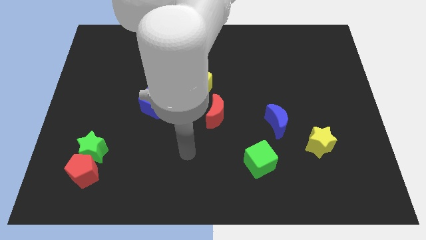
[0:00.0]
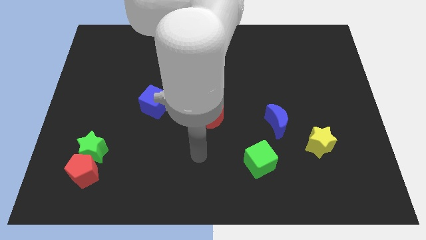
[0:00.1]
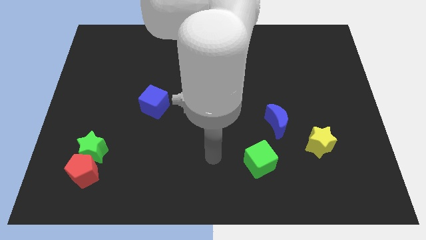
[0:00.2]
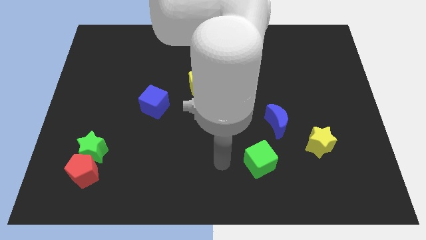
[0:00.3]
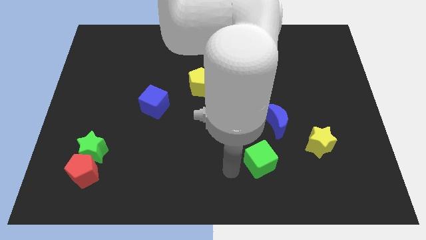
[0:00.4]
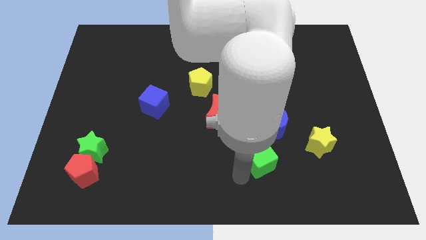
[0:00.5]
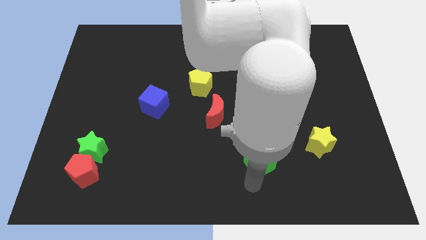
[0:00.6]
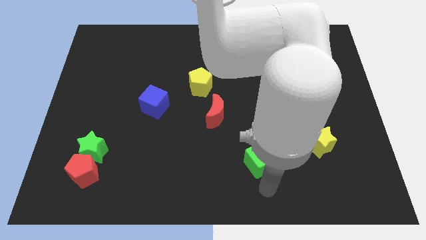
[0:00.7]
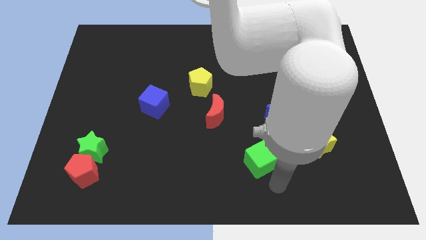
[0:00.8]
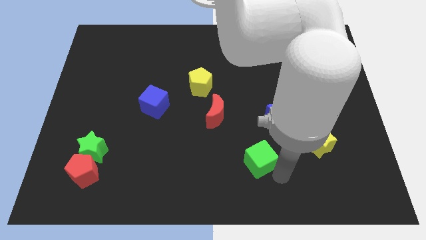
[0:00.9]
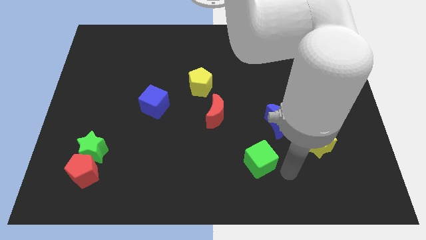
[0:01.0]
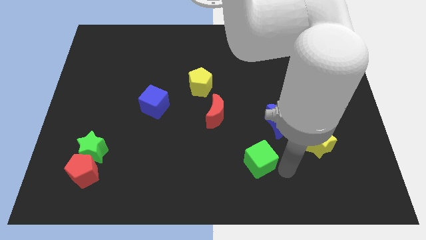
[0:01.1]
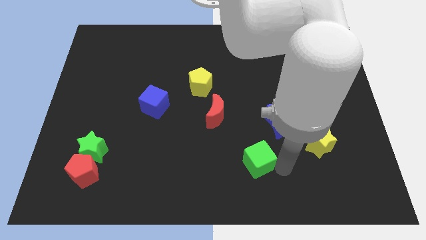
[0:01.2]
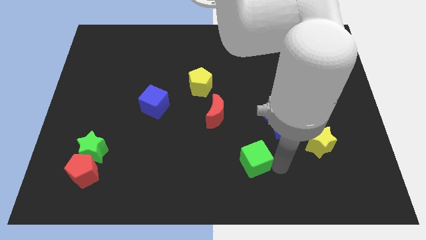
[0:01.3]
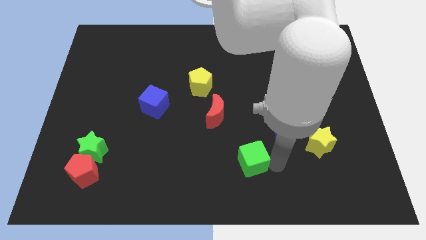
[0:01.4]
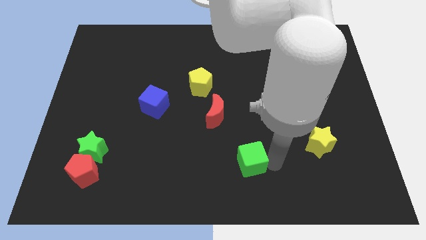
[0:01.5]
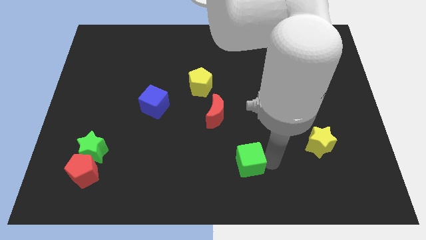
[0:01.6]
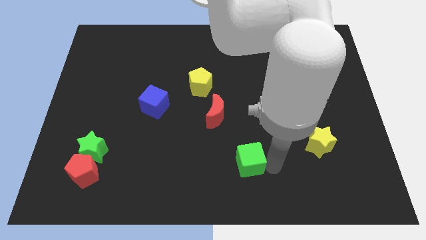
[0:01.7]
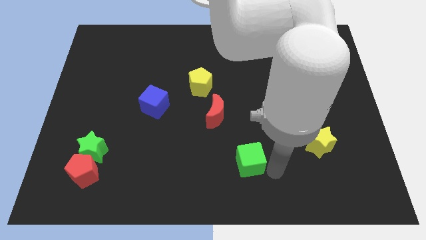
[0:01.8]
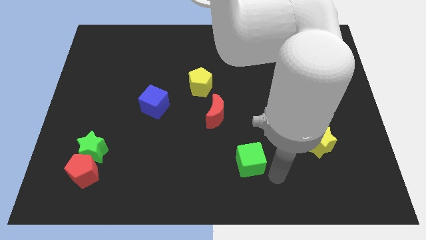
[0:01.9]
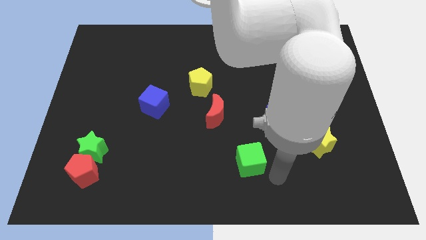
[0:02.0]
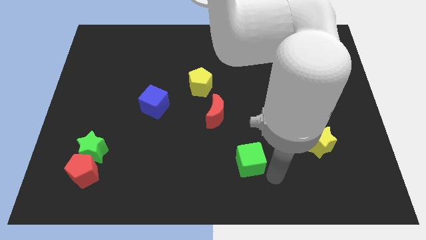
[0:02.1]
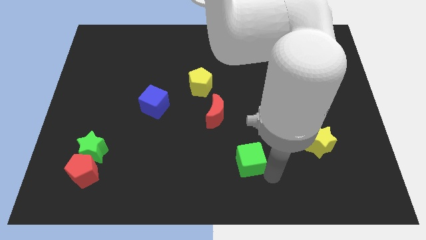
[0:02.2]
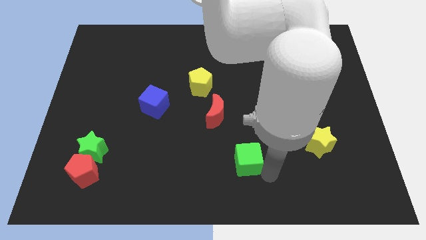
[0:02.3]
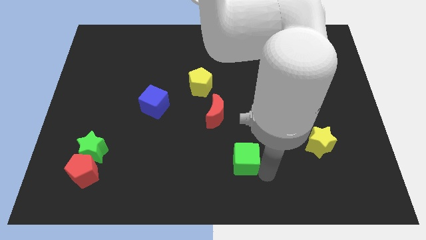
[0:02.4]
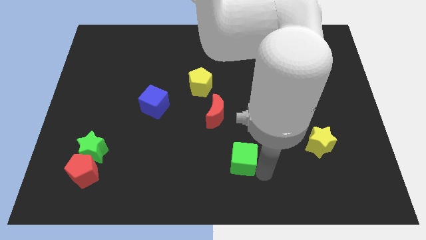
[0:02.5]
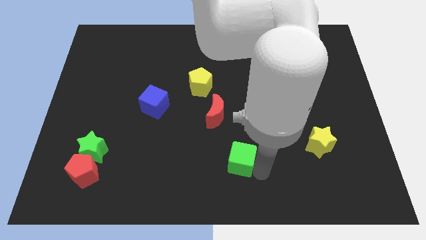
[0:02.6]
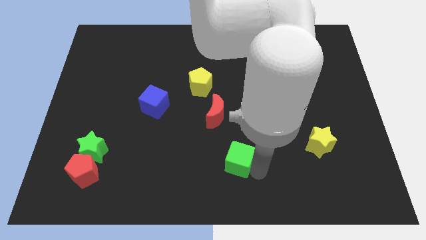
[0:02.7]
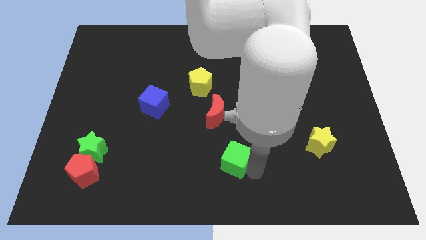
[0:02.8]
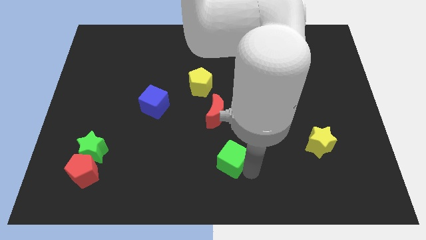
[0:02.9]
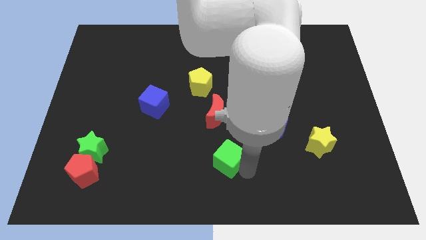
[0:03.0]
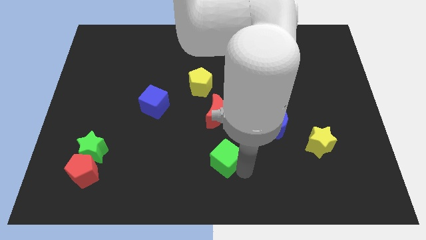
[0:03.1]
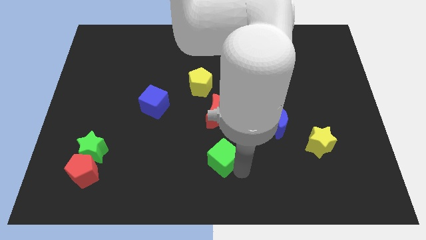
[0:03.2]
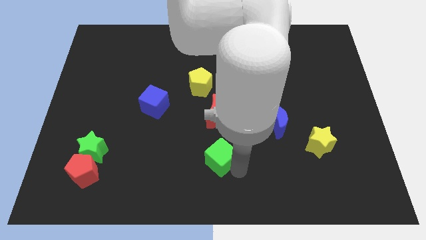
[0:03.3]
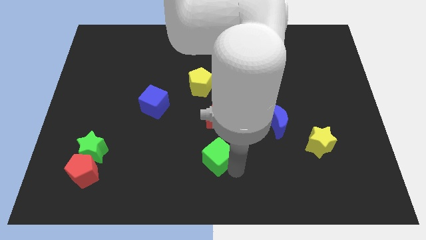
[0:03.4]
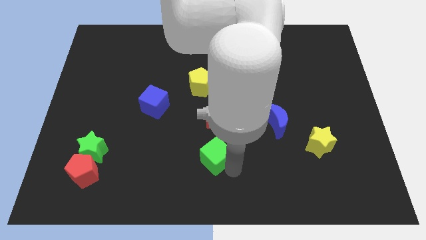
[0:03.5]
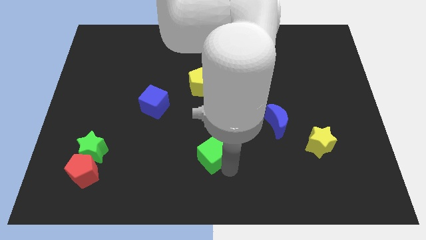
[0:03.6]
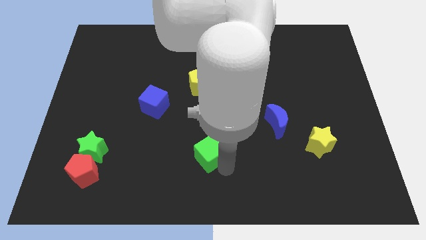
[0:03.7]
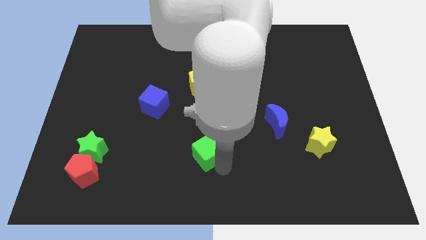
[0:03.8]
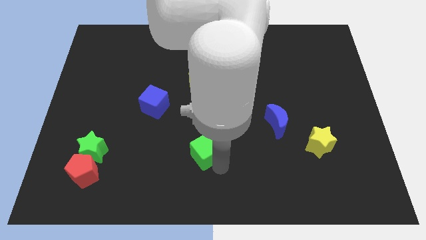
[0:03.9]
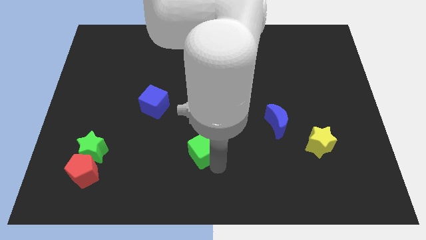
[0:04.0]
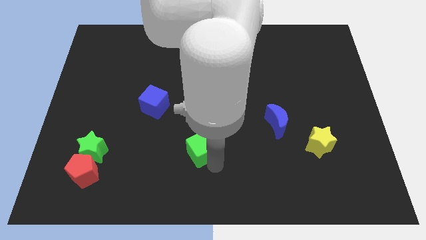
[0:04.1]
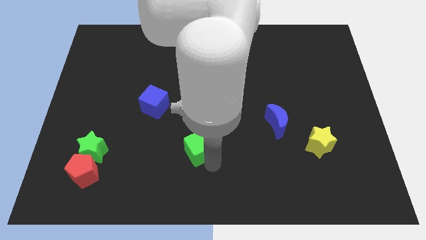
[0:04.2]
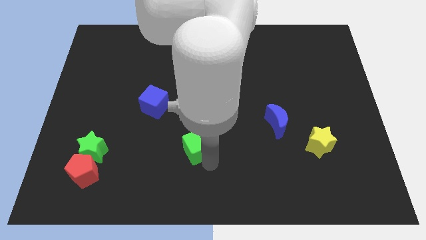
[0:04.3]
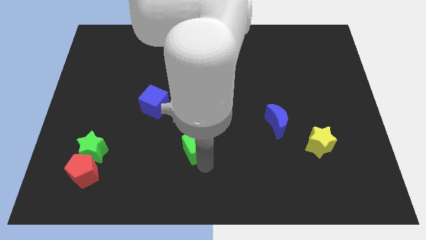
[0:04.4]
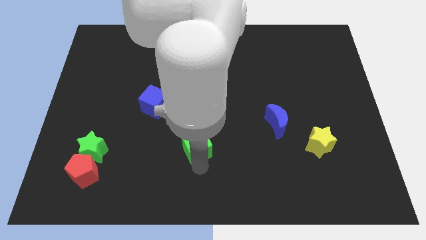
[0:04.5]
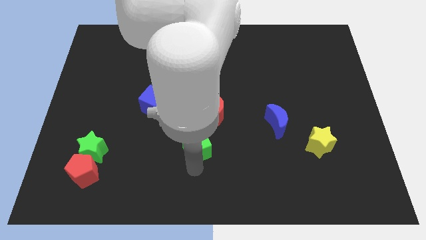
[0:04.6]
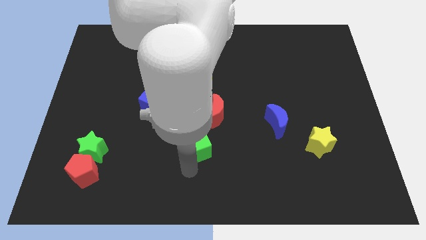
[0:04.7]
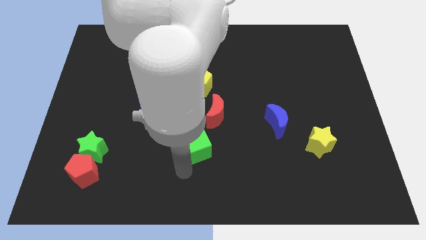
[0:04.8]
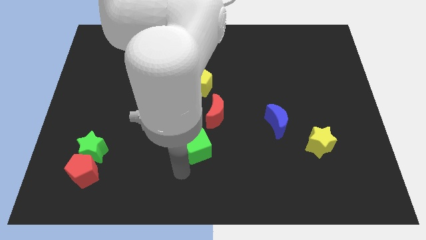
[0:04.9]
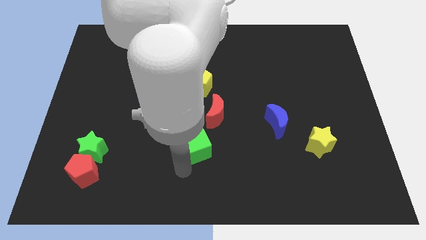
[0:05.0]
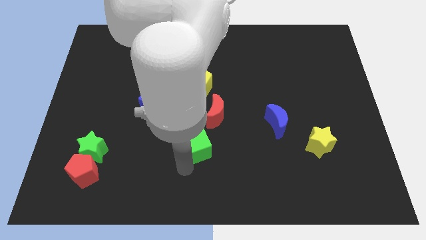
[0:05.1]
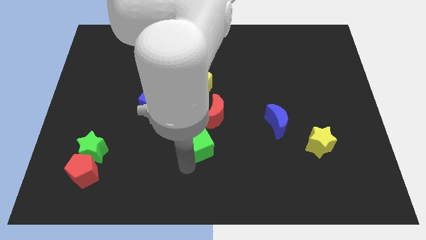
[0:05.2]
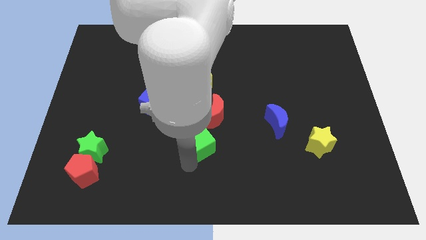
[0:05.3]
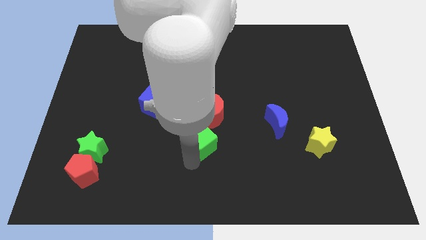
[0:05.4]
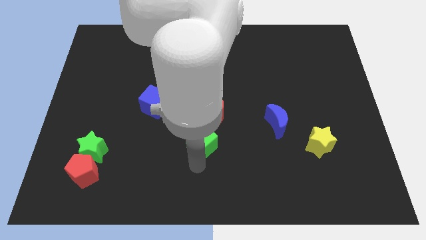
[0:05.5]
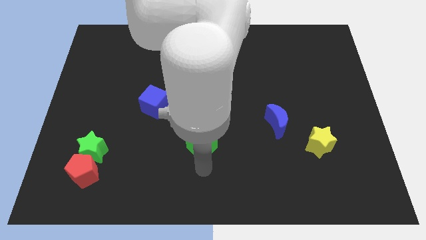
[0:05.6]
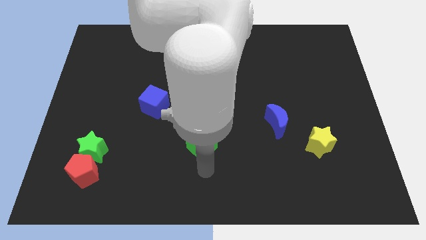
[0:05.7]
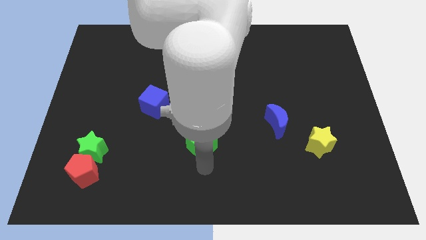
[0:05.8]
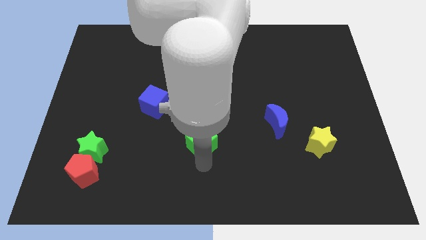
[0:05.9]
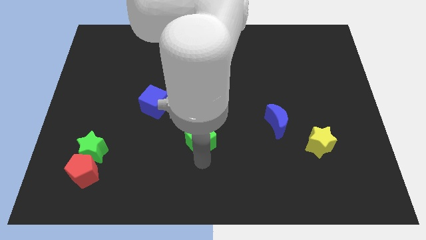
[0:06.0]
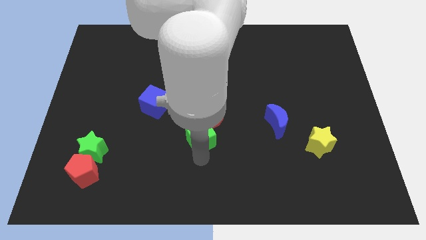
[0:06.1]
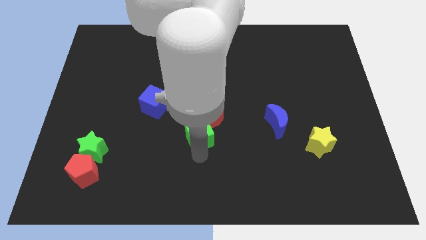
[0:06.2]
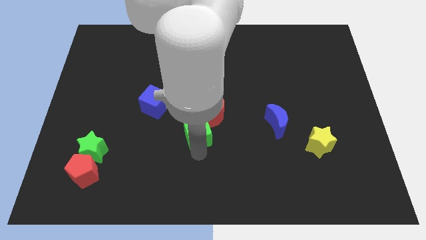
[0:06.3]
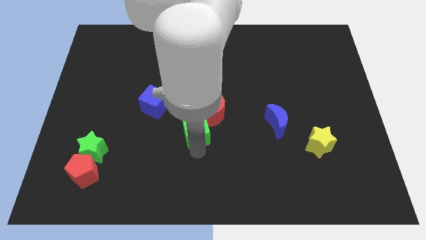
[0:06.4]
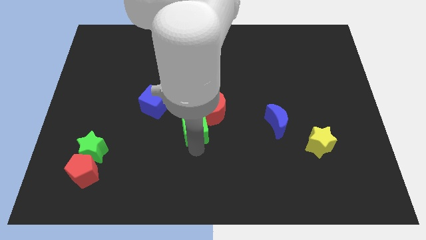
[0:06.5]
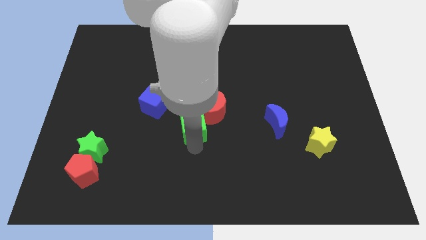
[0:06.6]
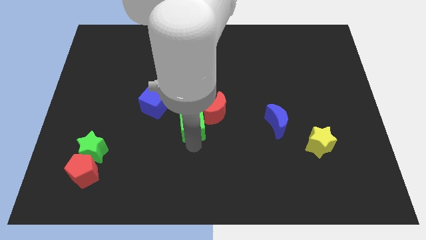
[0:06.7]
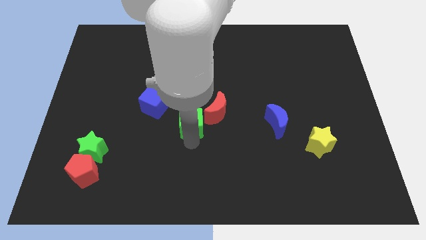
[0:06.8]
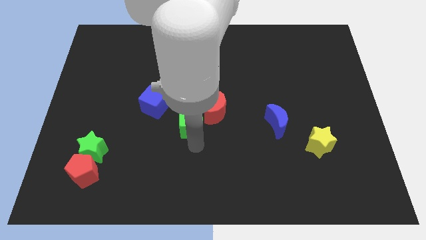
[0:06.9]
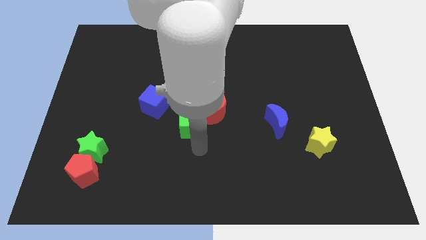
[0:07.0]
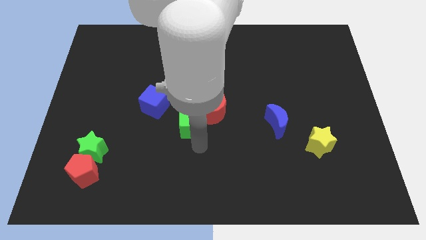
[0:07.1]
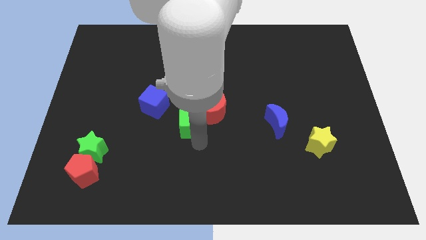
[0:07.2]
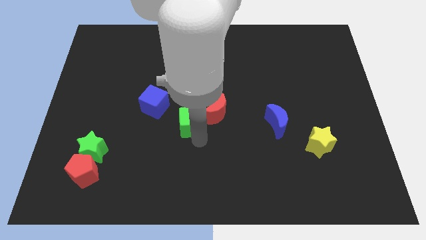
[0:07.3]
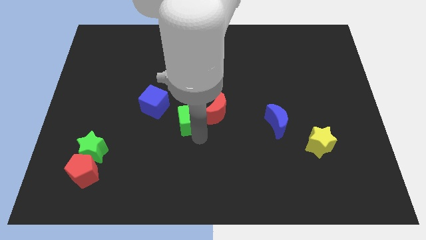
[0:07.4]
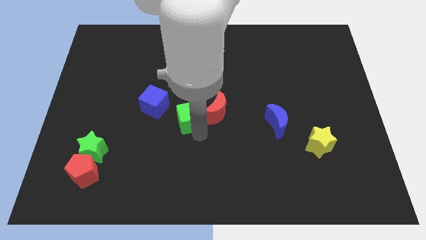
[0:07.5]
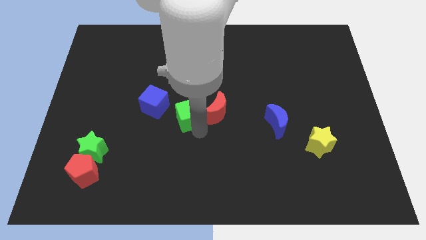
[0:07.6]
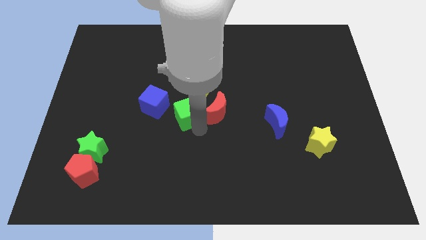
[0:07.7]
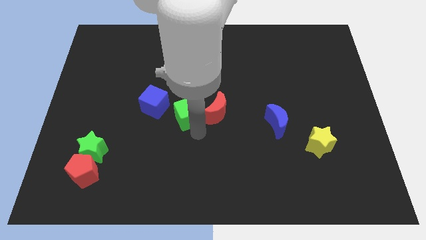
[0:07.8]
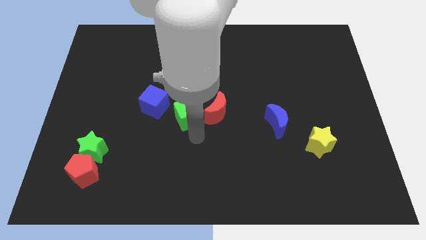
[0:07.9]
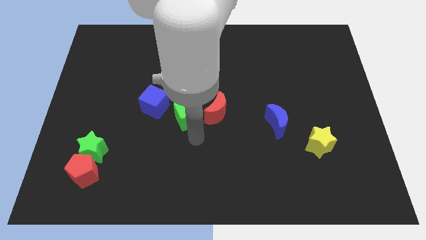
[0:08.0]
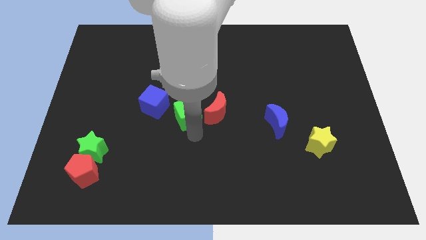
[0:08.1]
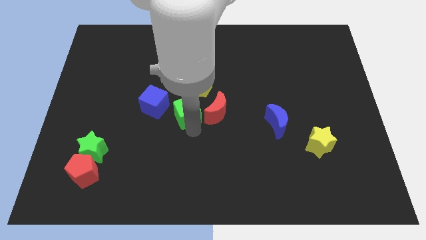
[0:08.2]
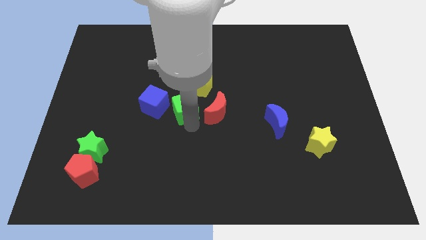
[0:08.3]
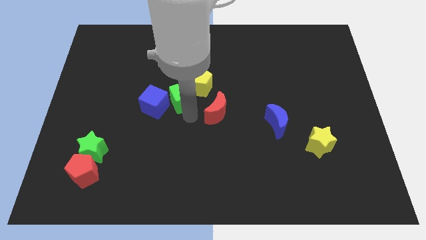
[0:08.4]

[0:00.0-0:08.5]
put the green cube left of the yellow pentagon
